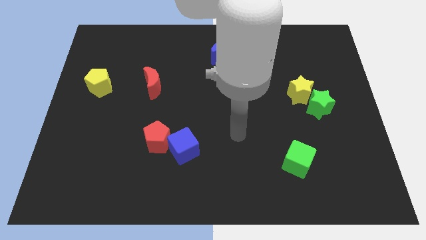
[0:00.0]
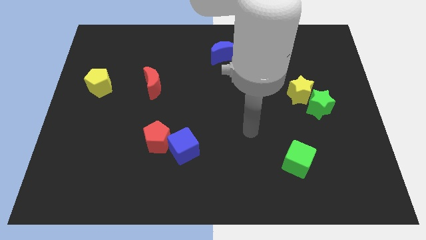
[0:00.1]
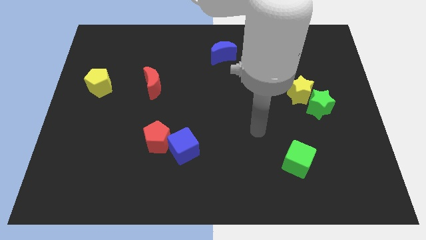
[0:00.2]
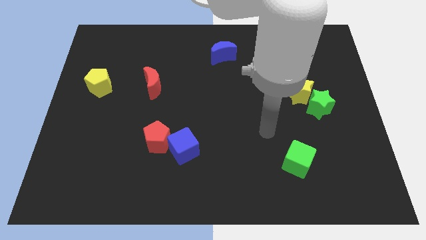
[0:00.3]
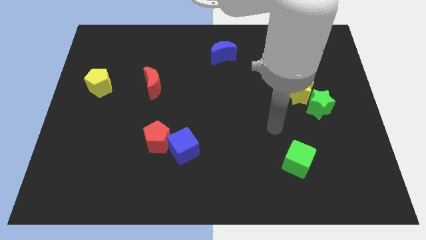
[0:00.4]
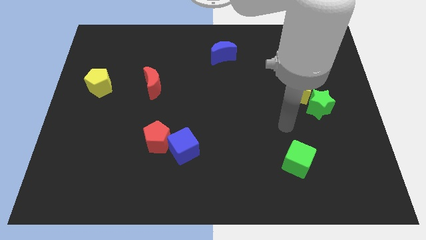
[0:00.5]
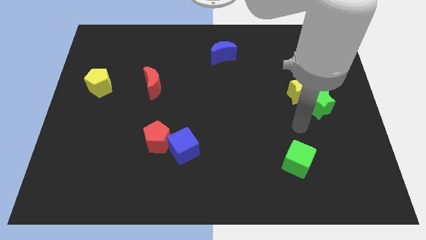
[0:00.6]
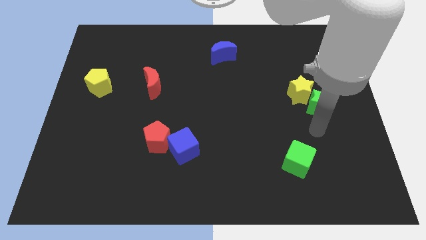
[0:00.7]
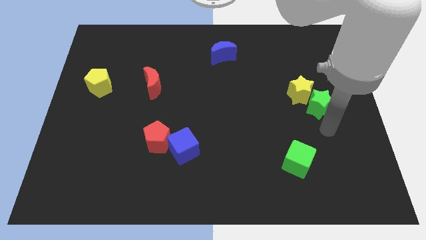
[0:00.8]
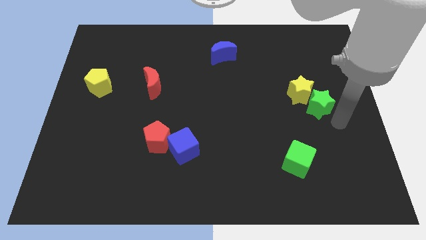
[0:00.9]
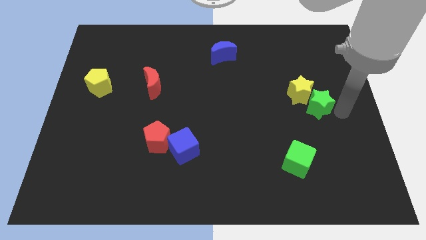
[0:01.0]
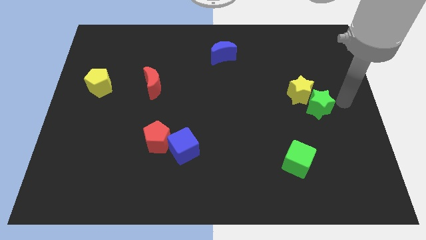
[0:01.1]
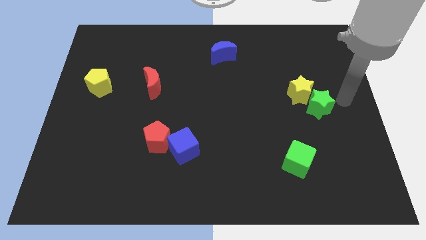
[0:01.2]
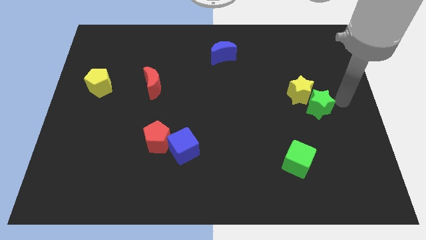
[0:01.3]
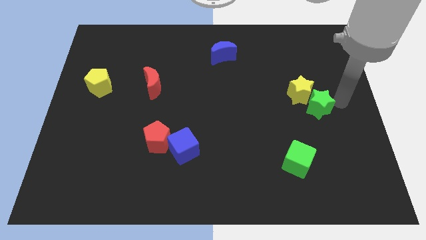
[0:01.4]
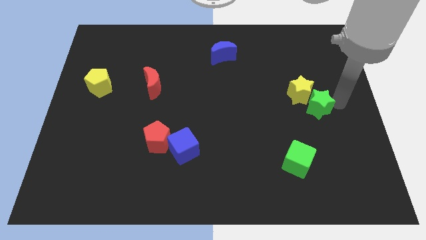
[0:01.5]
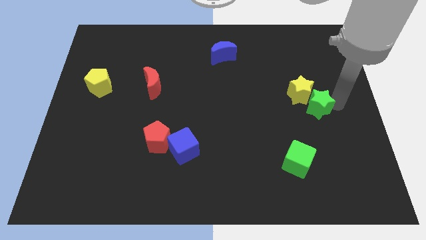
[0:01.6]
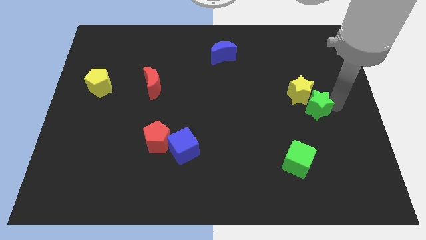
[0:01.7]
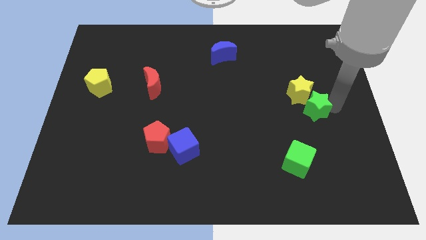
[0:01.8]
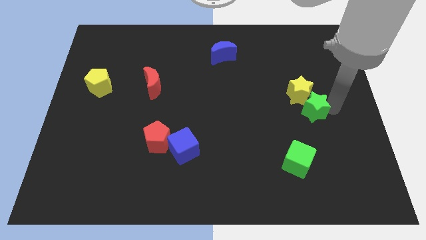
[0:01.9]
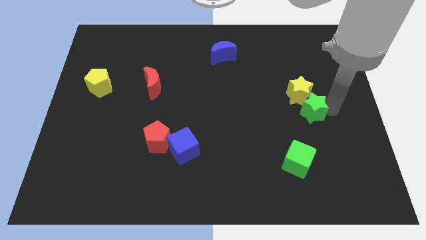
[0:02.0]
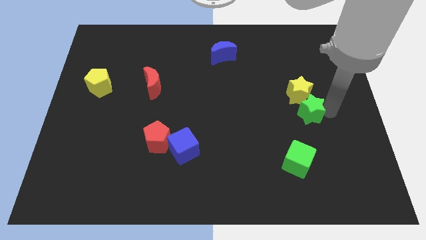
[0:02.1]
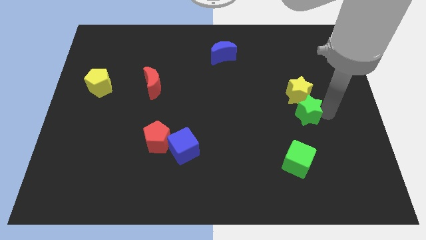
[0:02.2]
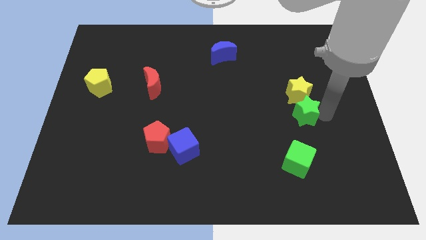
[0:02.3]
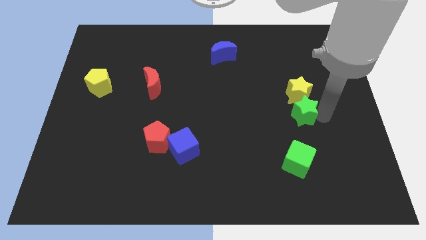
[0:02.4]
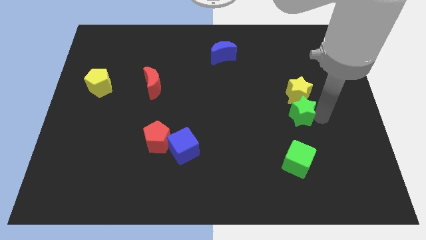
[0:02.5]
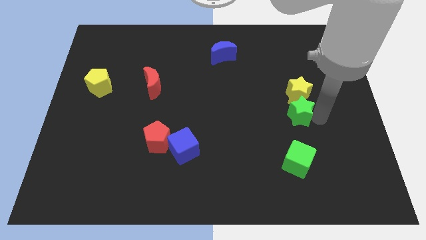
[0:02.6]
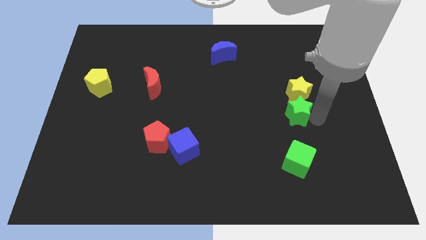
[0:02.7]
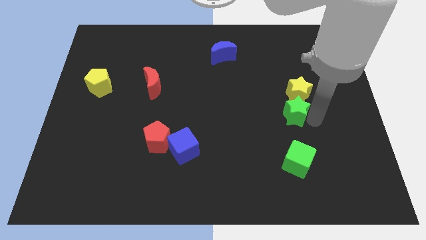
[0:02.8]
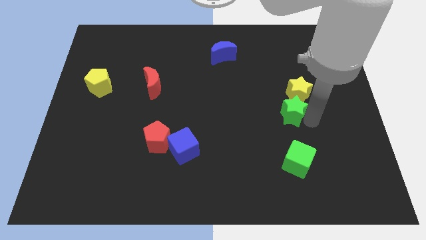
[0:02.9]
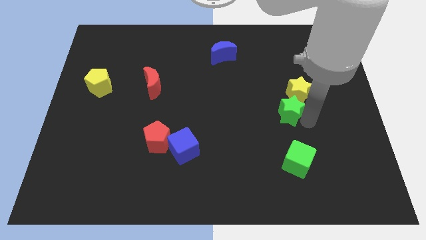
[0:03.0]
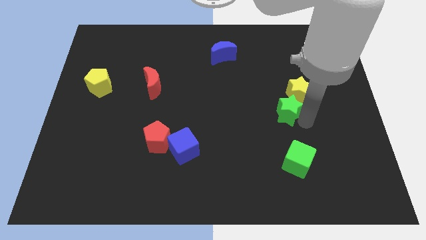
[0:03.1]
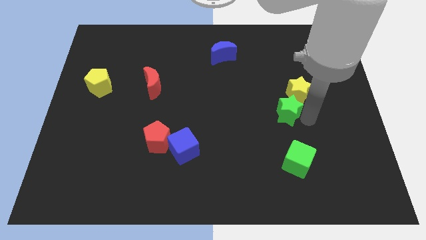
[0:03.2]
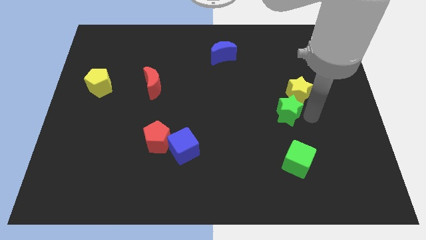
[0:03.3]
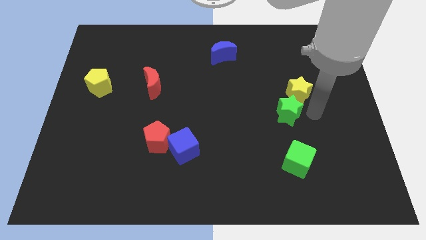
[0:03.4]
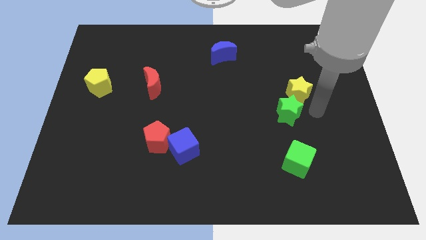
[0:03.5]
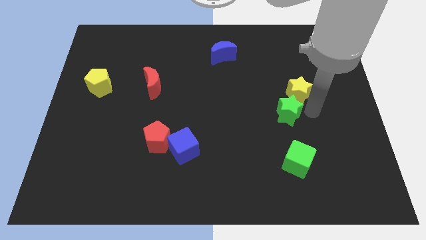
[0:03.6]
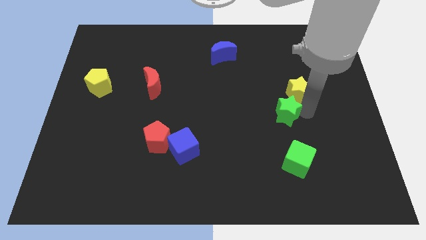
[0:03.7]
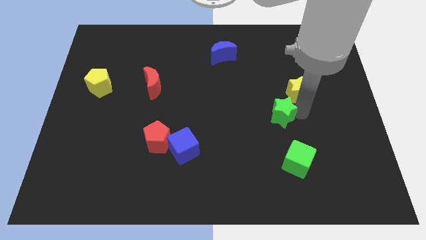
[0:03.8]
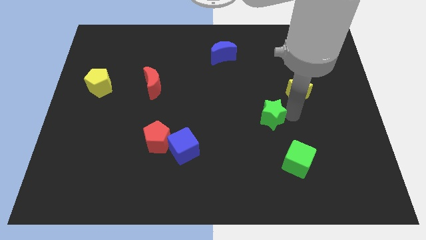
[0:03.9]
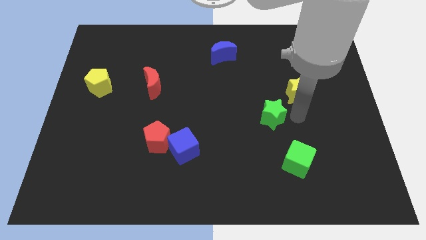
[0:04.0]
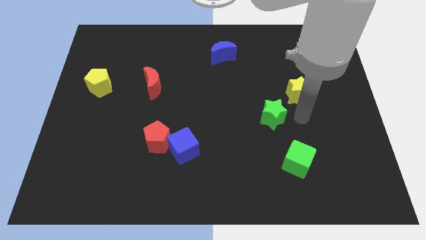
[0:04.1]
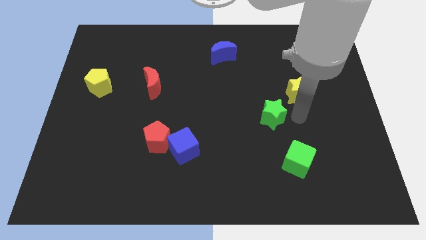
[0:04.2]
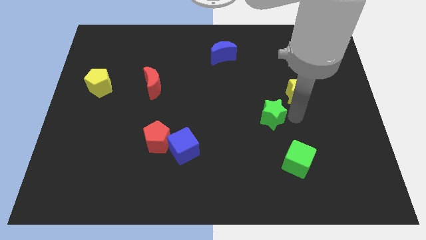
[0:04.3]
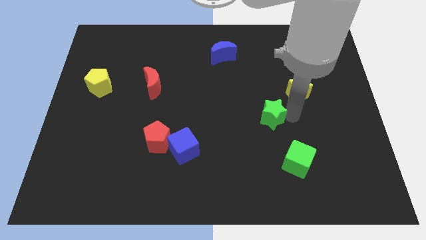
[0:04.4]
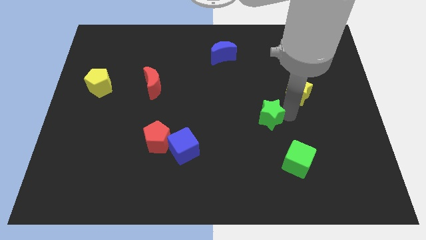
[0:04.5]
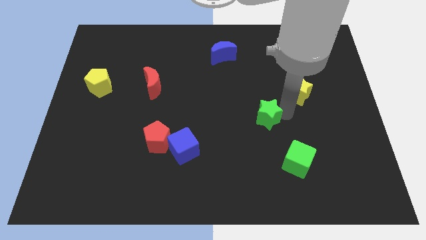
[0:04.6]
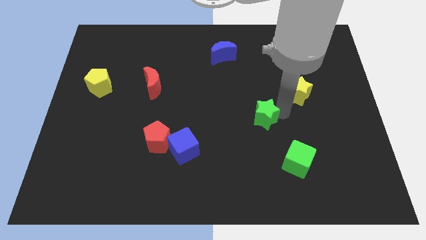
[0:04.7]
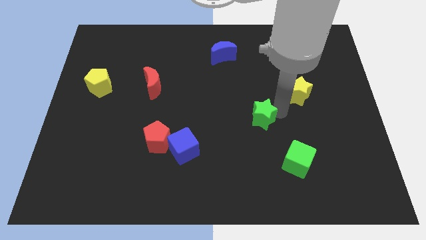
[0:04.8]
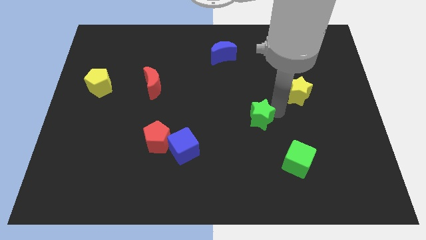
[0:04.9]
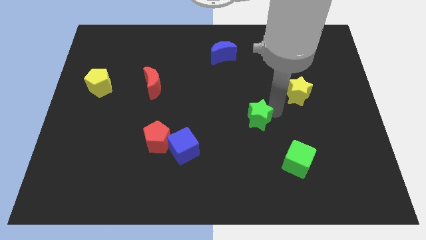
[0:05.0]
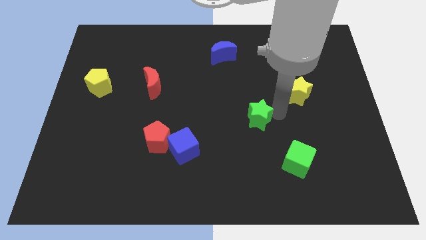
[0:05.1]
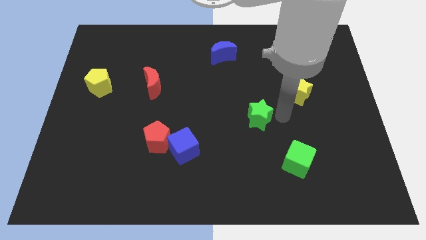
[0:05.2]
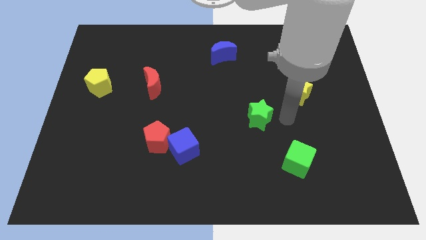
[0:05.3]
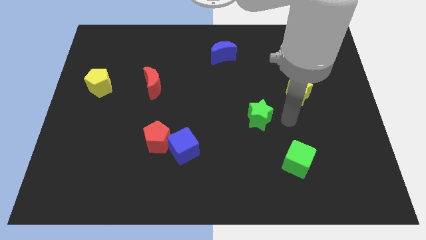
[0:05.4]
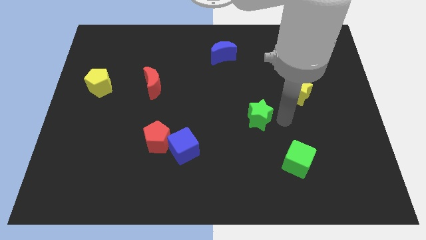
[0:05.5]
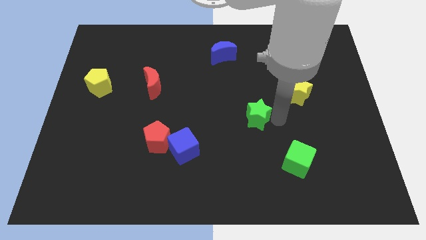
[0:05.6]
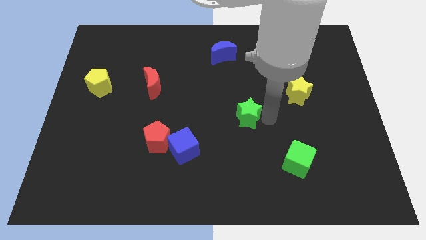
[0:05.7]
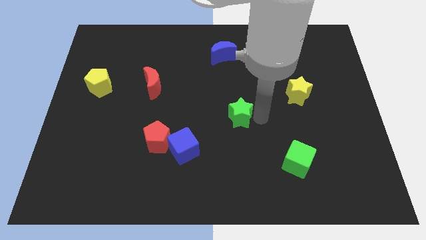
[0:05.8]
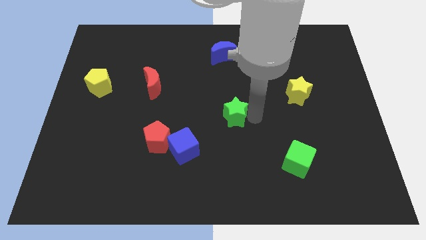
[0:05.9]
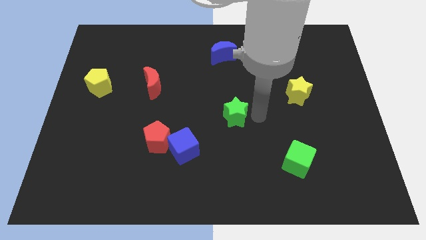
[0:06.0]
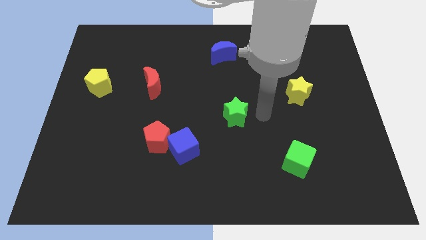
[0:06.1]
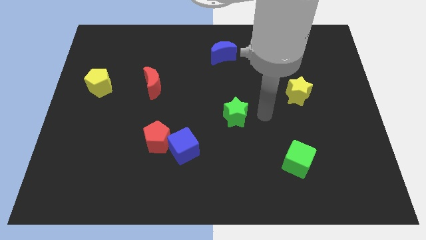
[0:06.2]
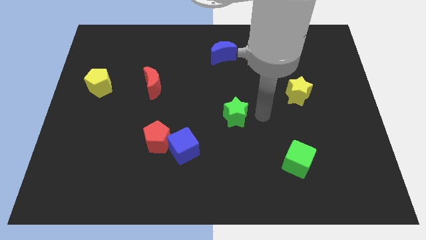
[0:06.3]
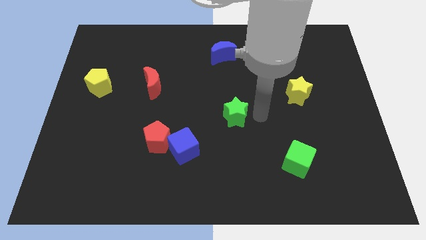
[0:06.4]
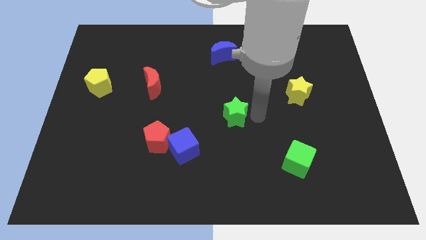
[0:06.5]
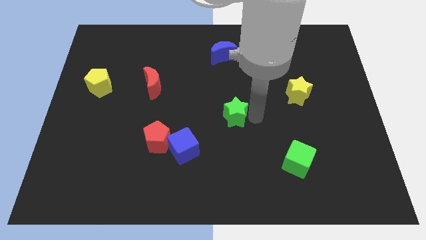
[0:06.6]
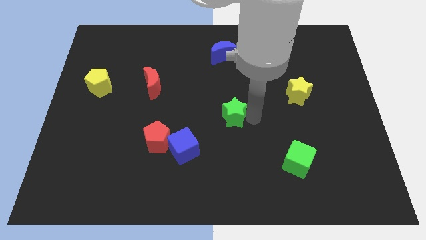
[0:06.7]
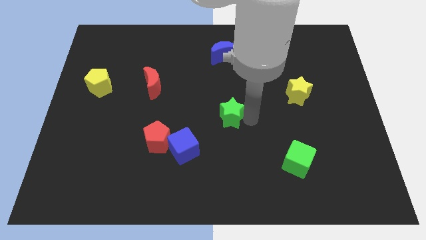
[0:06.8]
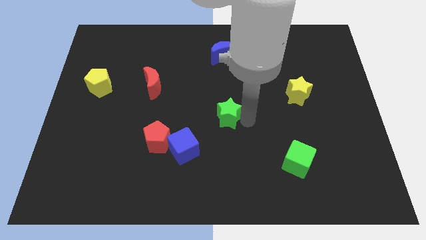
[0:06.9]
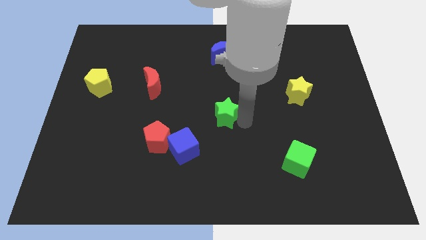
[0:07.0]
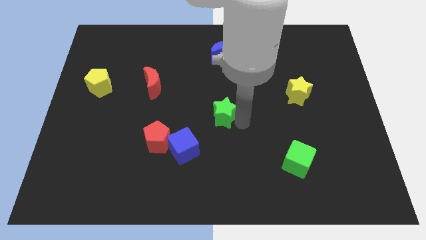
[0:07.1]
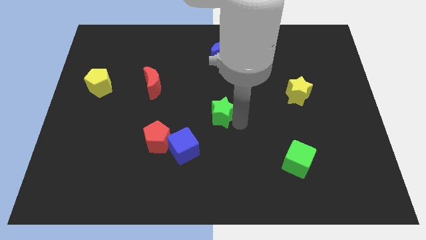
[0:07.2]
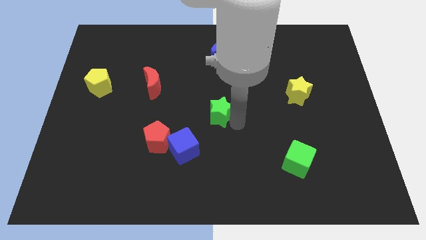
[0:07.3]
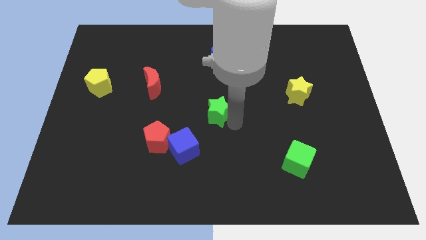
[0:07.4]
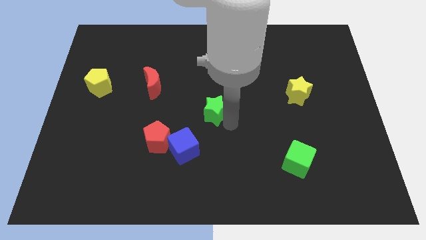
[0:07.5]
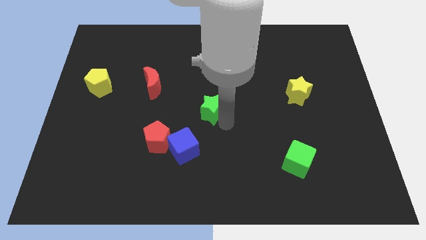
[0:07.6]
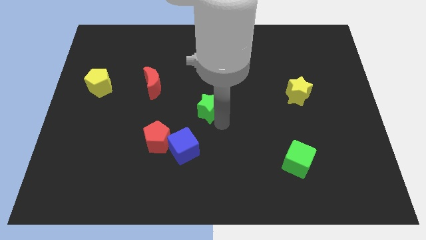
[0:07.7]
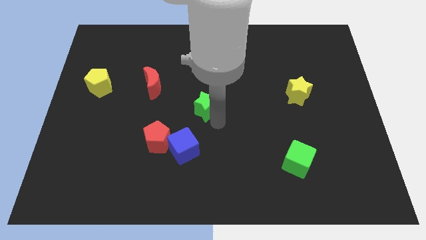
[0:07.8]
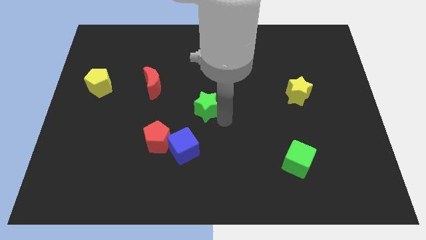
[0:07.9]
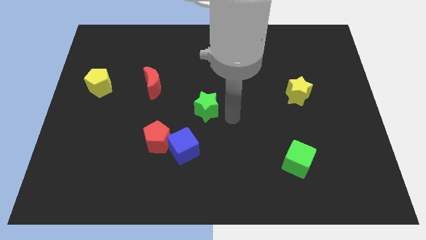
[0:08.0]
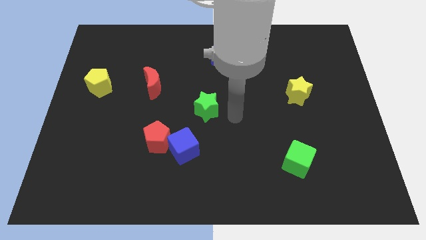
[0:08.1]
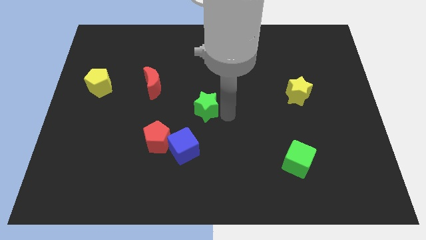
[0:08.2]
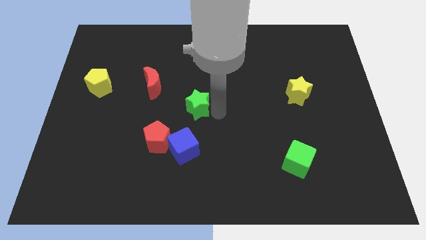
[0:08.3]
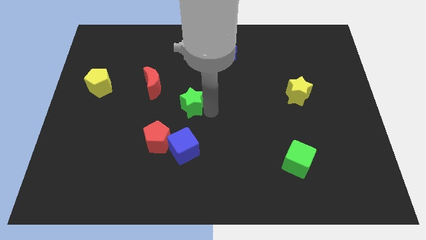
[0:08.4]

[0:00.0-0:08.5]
move the green star diagonally down and to the right of the red moon
